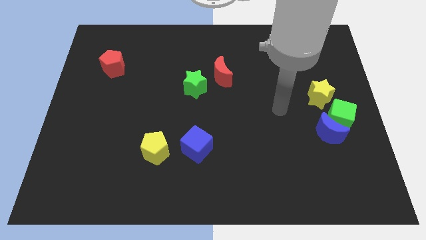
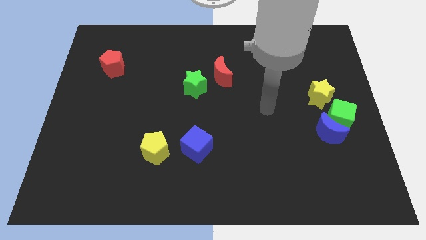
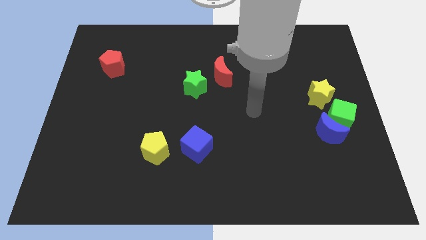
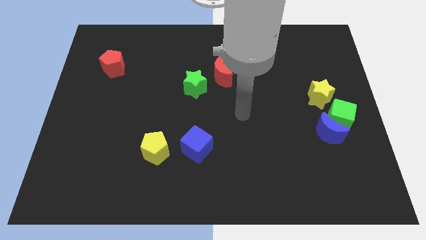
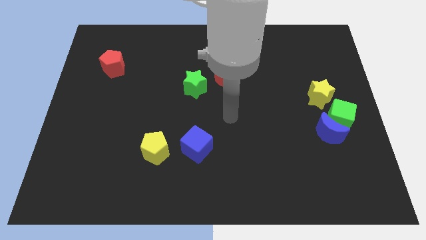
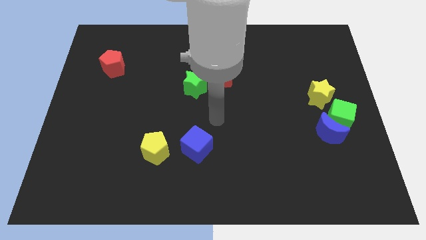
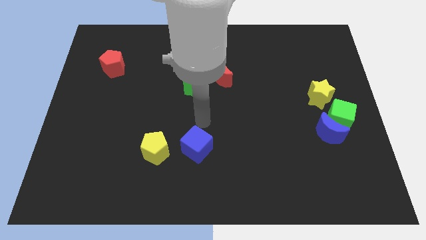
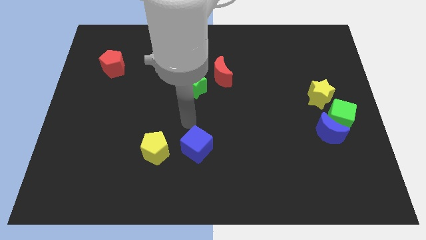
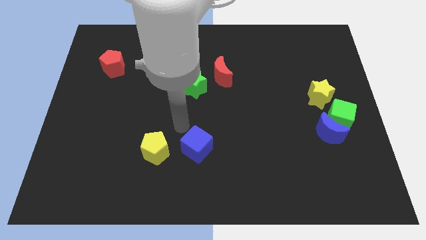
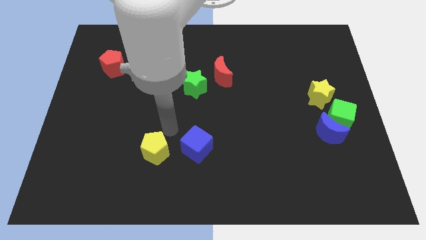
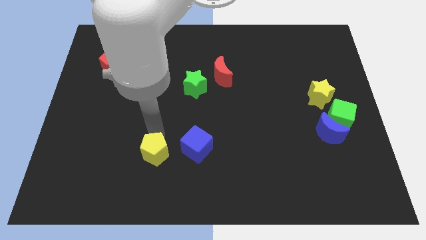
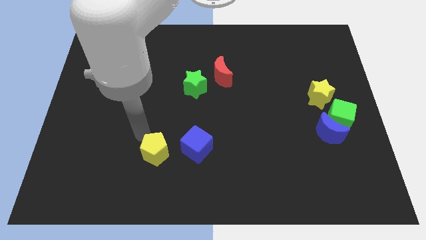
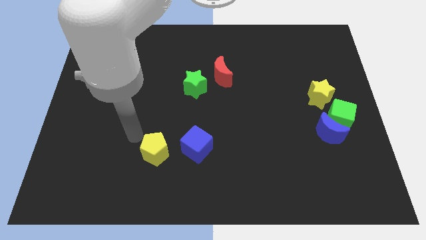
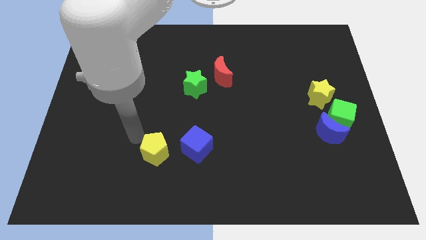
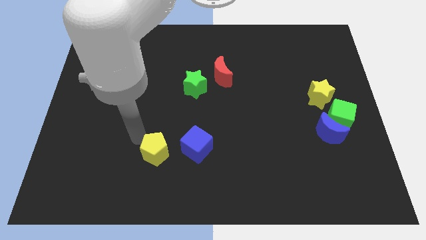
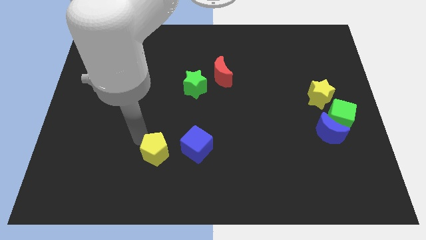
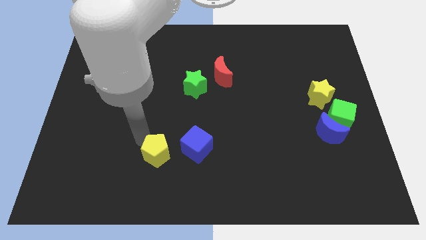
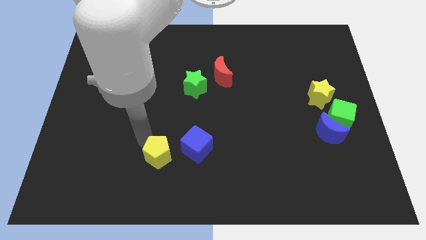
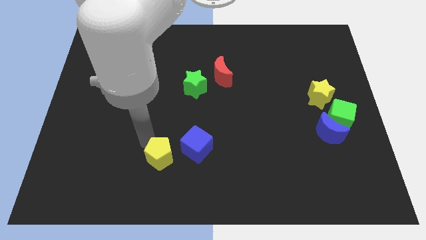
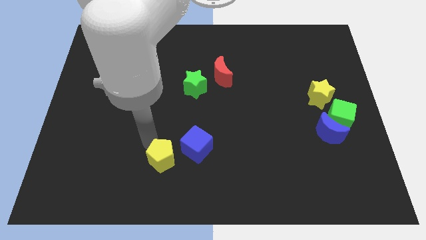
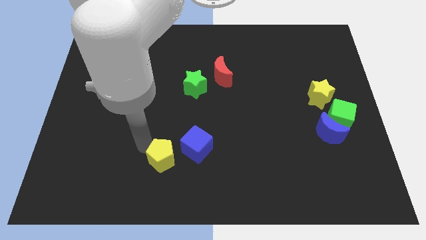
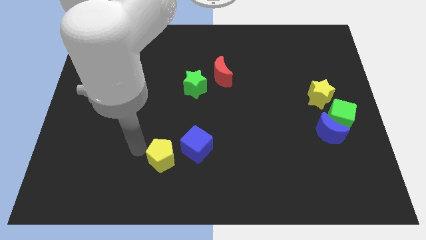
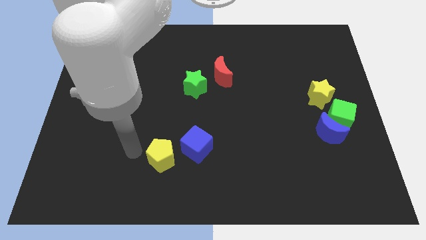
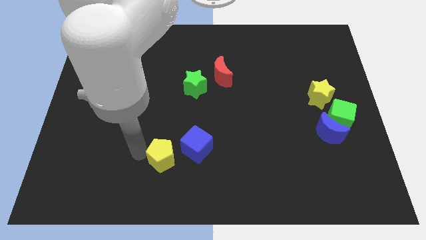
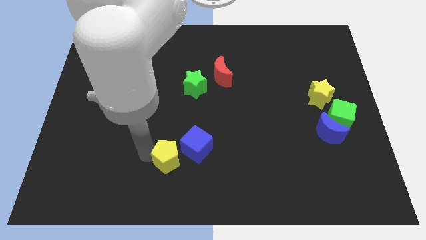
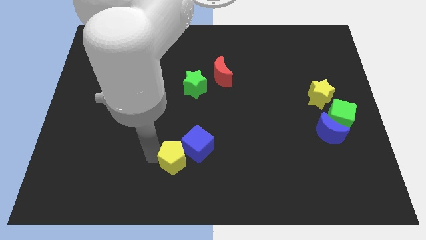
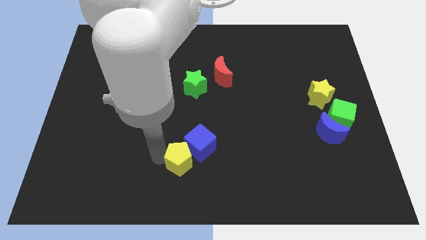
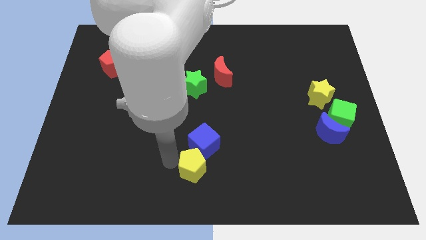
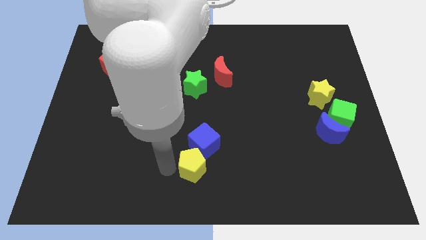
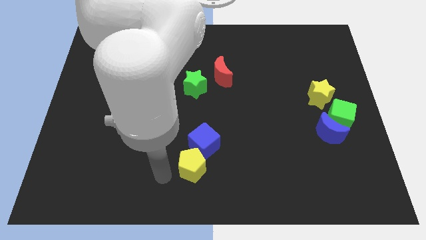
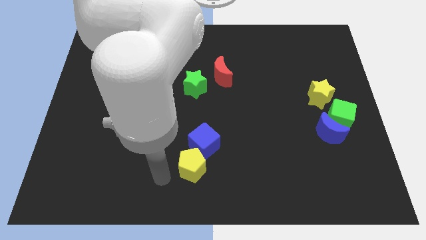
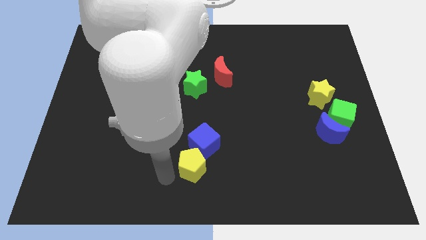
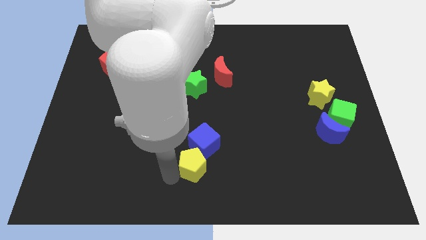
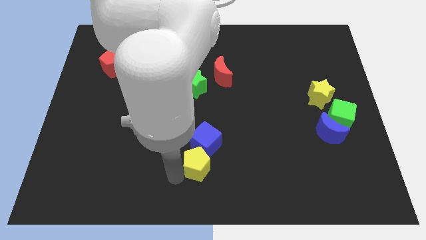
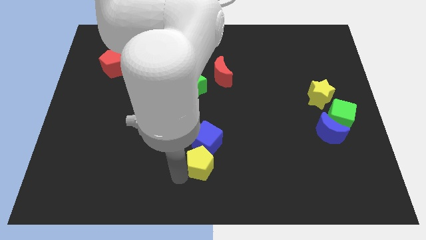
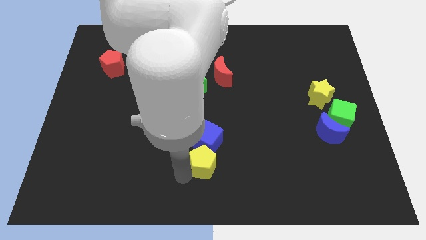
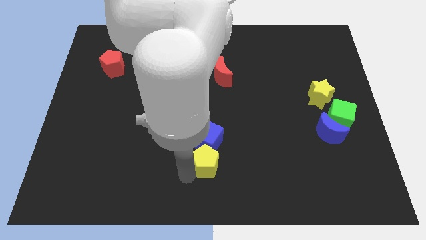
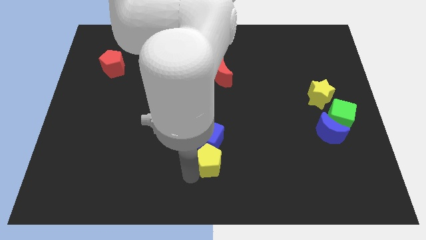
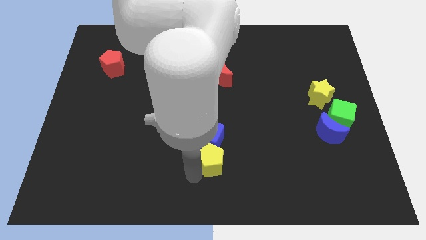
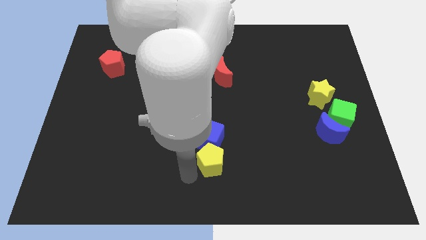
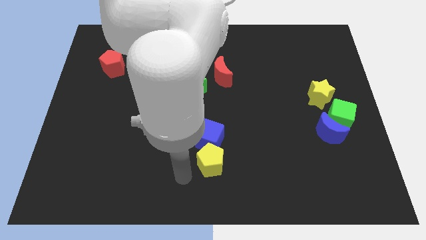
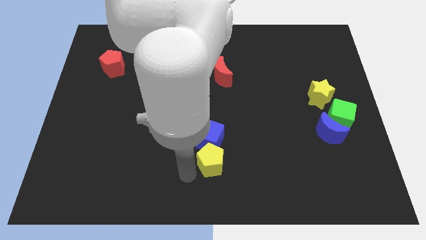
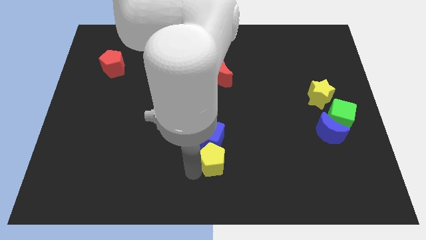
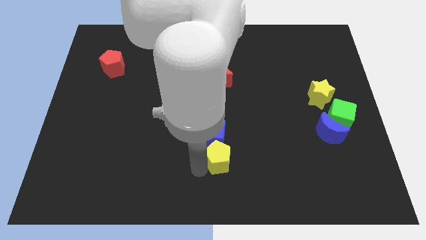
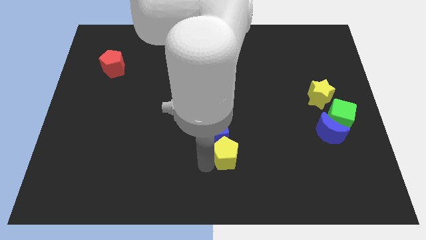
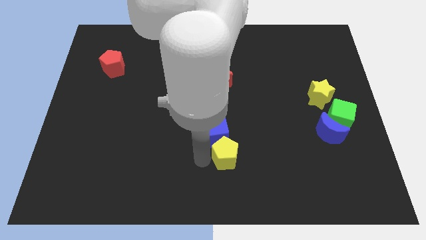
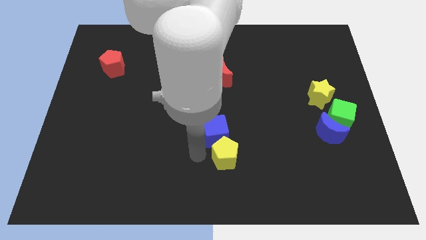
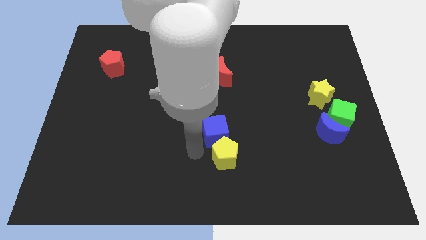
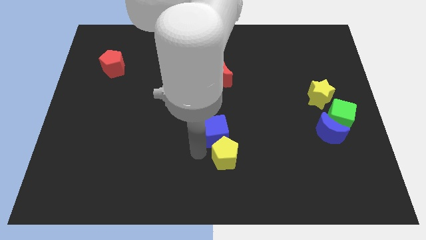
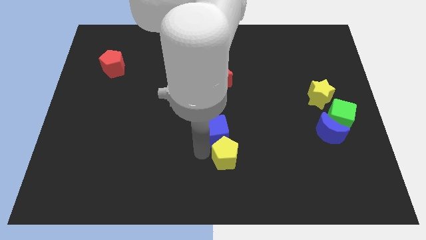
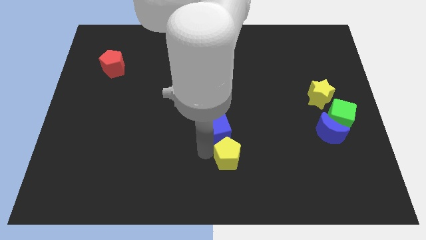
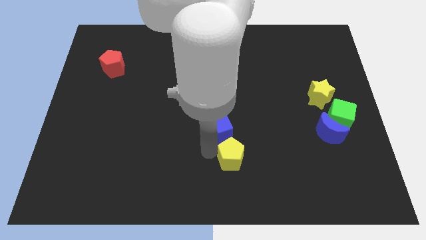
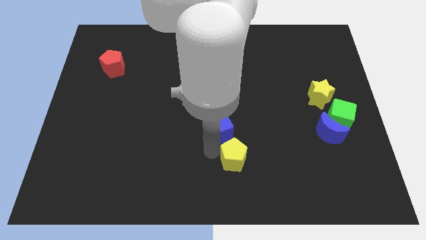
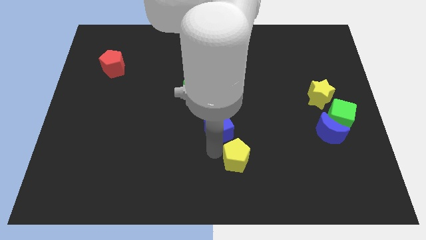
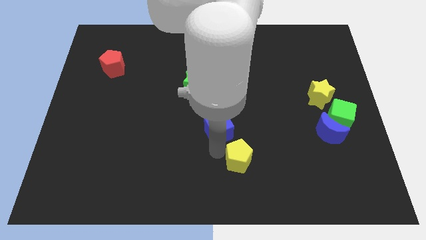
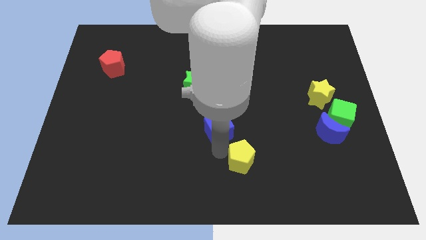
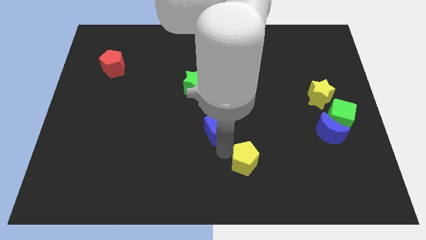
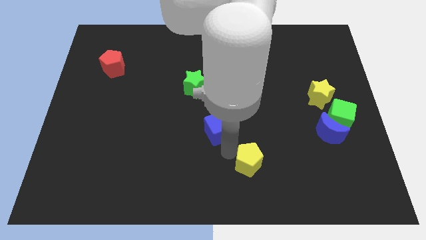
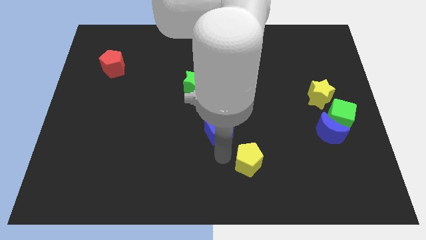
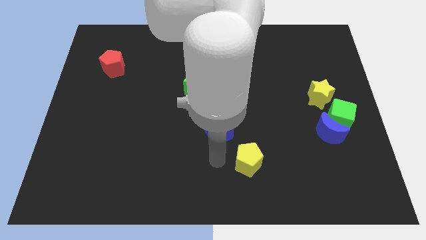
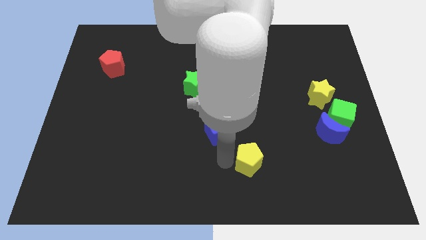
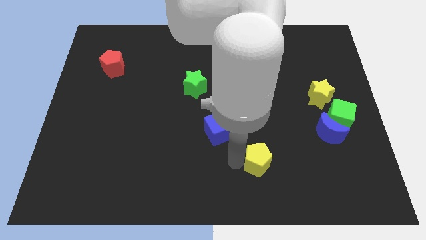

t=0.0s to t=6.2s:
slide the yellow pentagon to the right

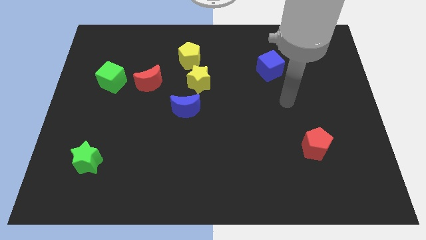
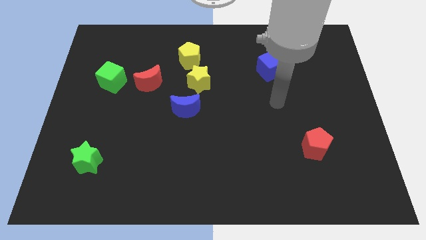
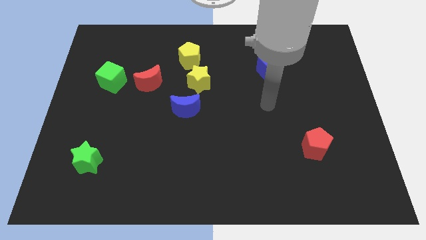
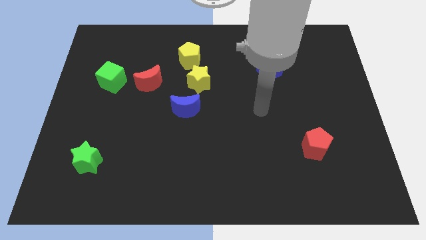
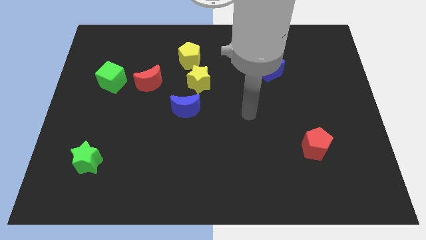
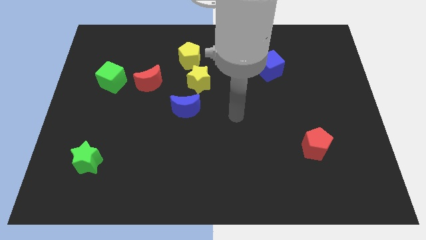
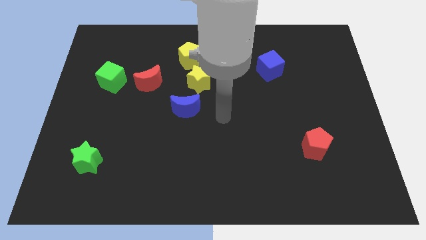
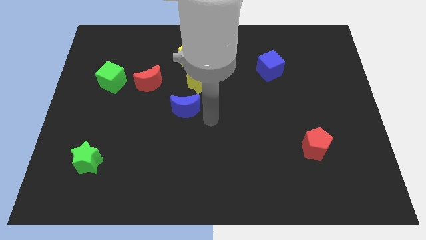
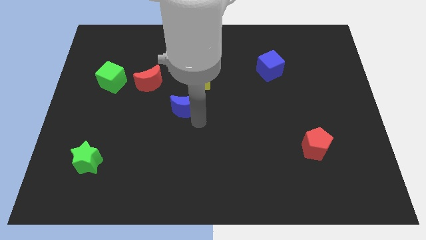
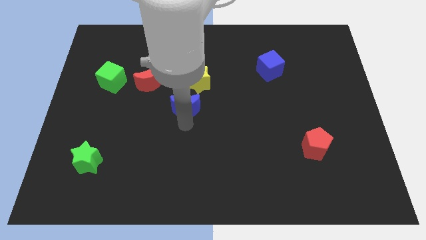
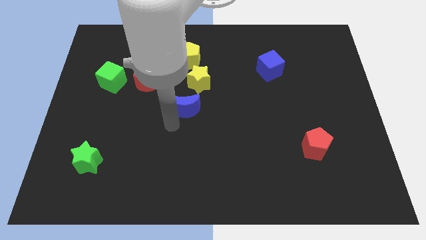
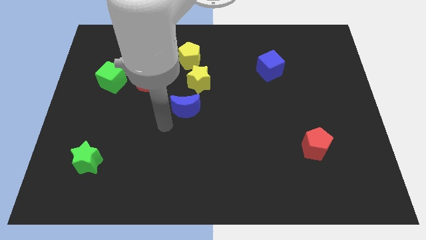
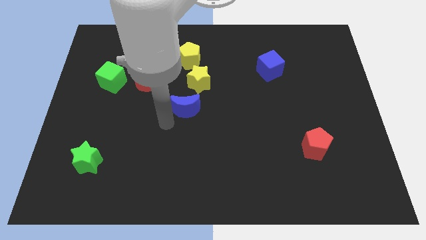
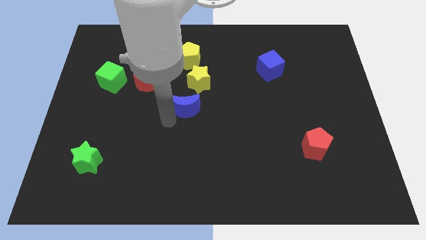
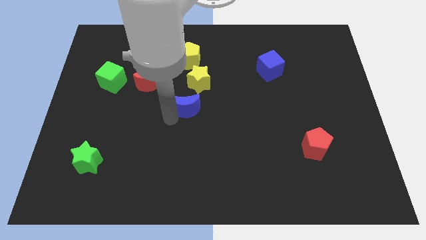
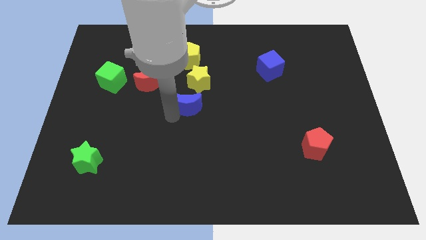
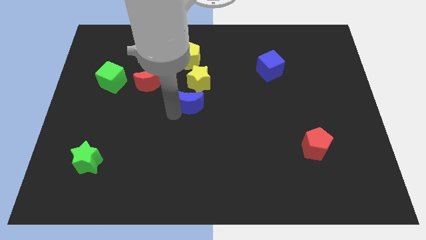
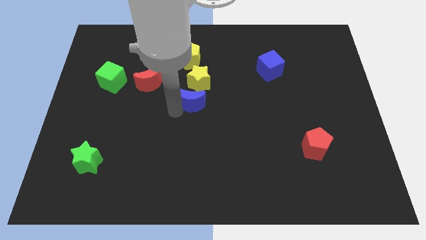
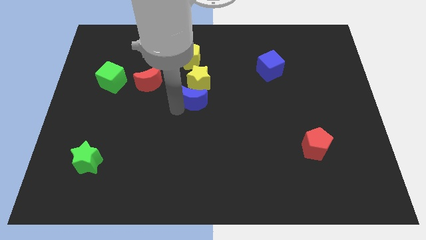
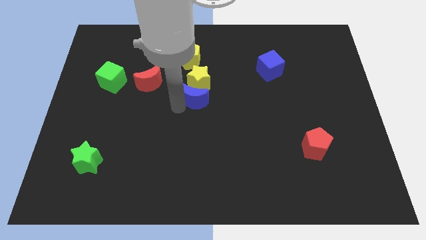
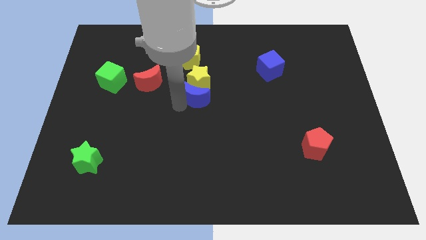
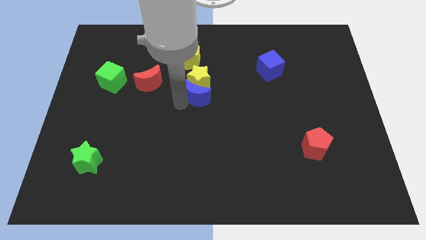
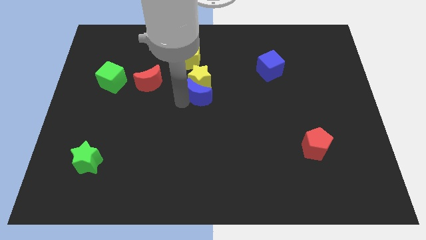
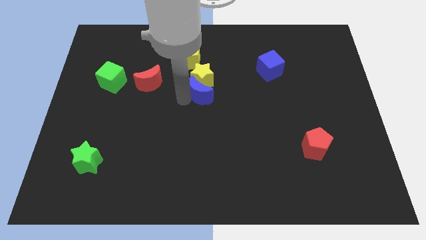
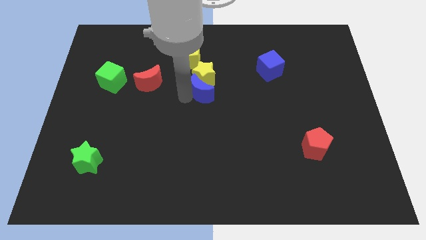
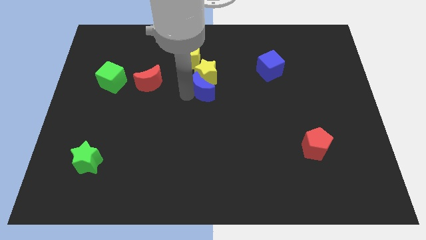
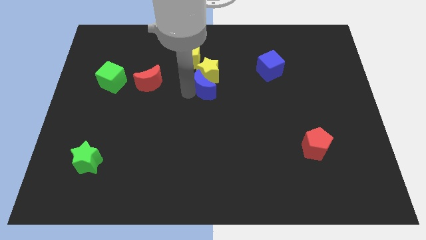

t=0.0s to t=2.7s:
slide the blue moon diagonally up and right a bit
